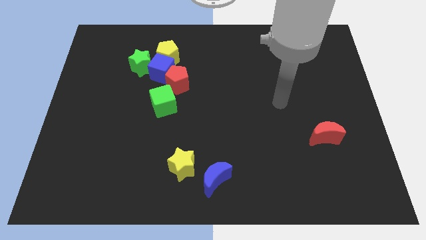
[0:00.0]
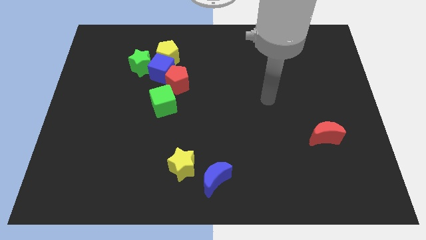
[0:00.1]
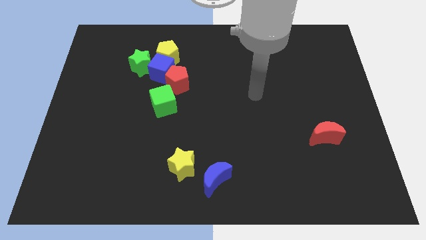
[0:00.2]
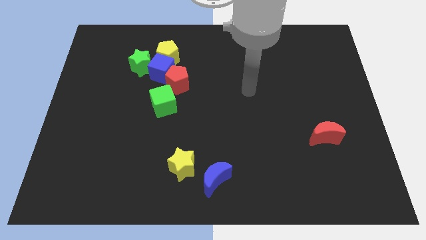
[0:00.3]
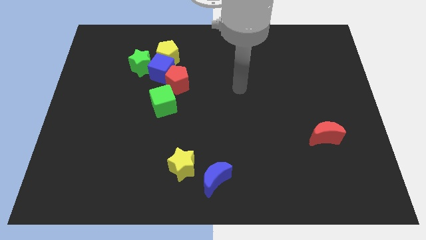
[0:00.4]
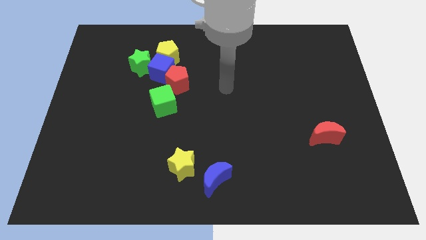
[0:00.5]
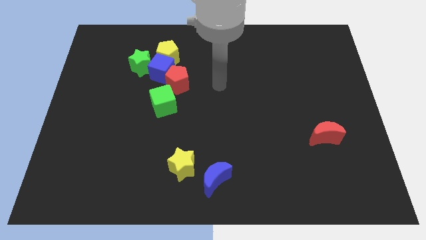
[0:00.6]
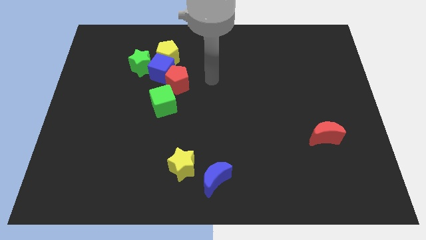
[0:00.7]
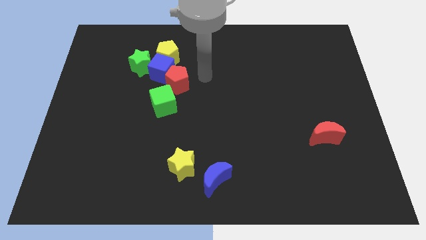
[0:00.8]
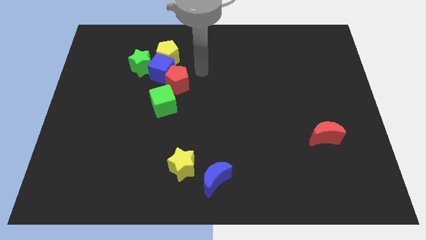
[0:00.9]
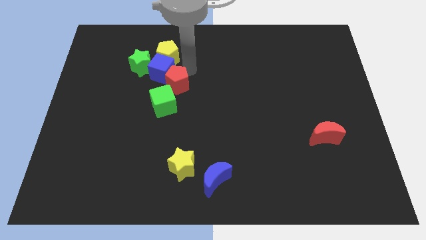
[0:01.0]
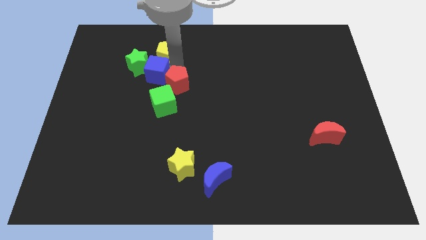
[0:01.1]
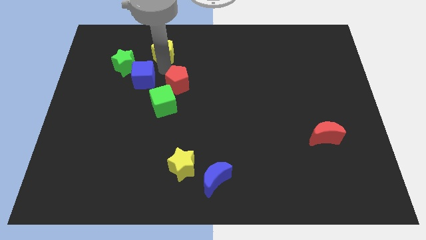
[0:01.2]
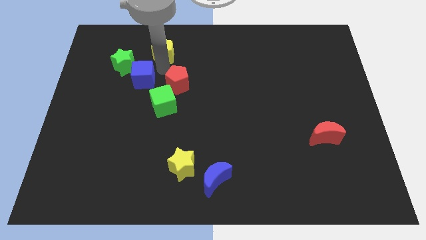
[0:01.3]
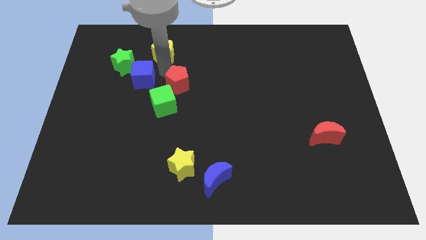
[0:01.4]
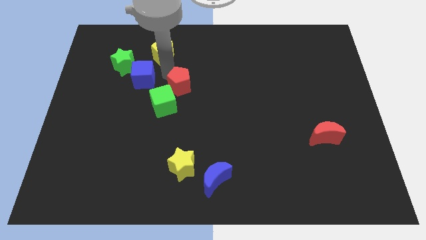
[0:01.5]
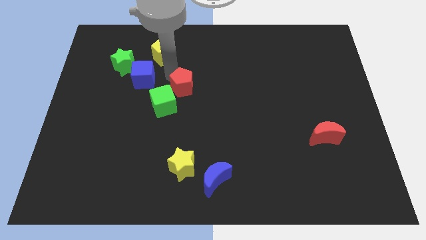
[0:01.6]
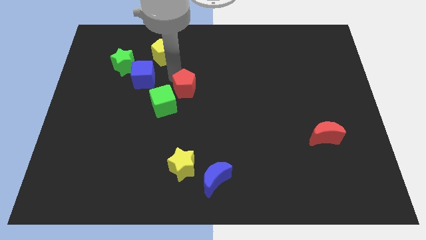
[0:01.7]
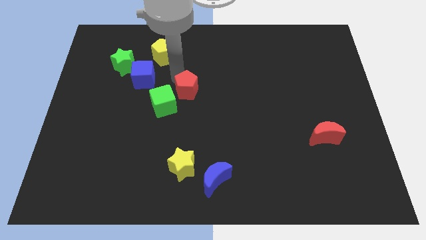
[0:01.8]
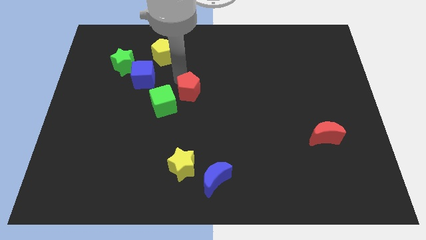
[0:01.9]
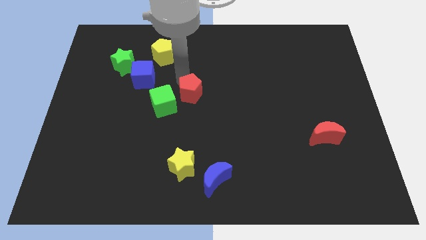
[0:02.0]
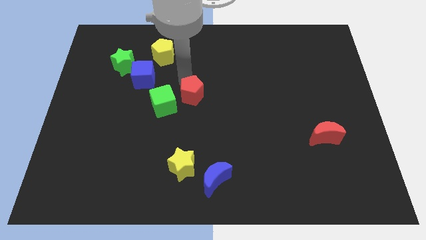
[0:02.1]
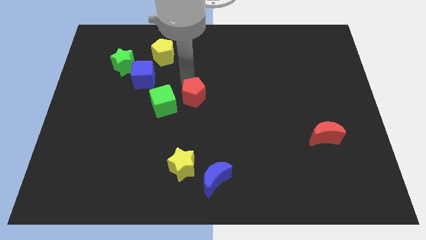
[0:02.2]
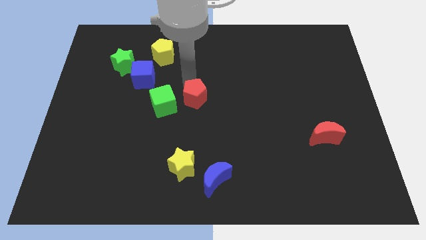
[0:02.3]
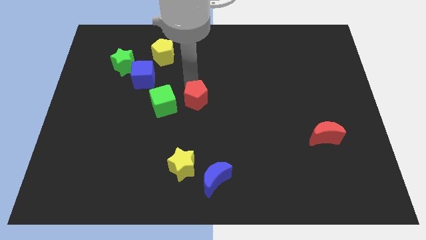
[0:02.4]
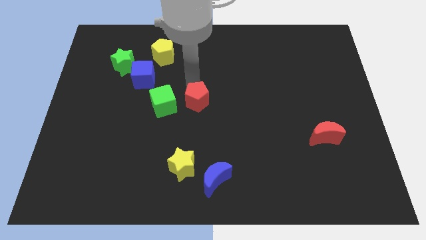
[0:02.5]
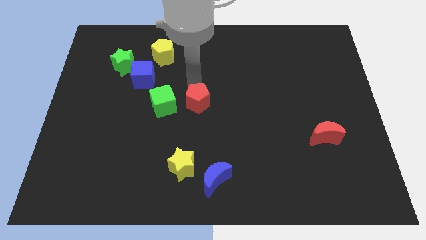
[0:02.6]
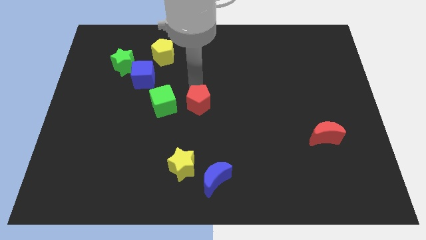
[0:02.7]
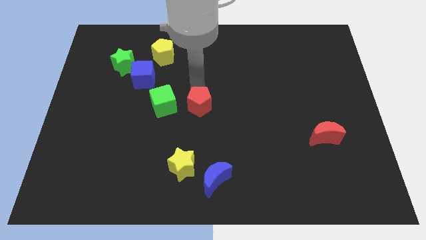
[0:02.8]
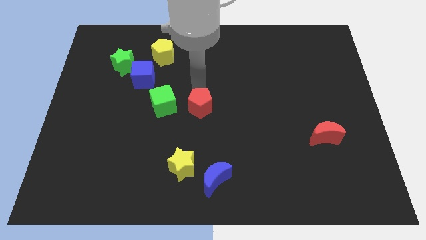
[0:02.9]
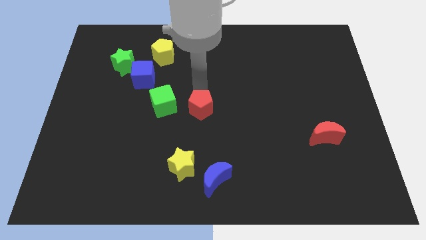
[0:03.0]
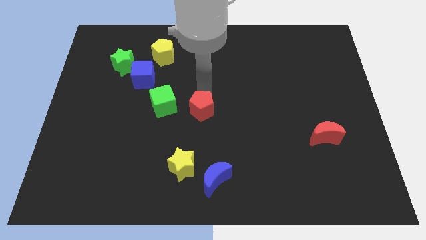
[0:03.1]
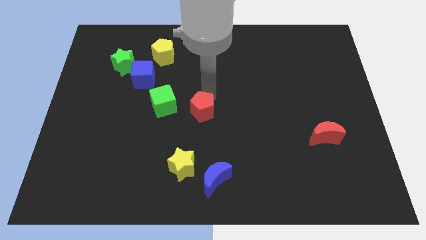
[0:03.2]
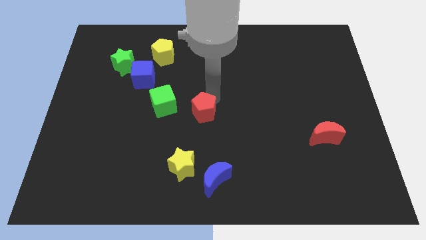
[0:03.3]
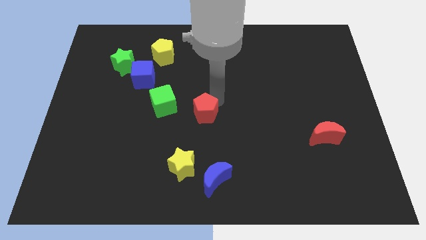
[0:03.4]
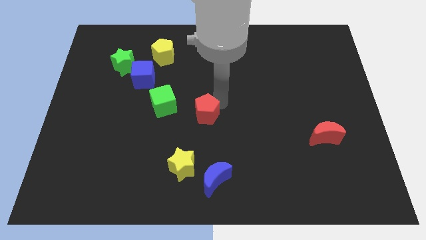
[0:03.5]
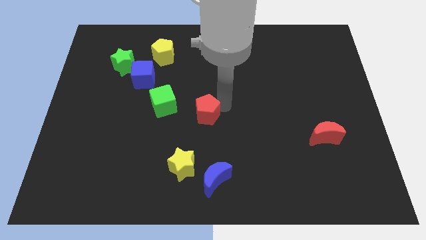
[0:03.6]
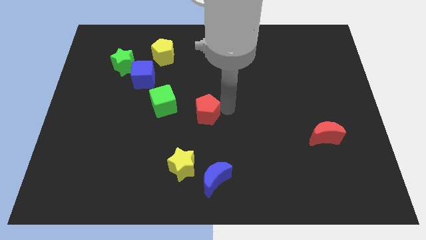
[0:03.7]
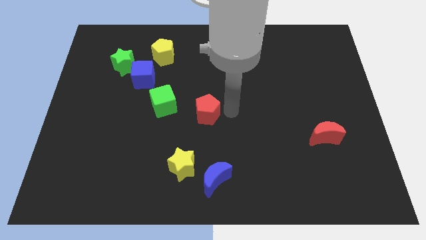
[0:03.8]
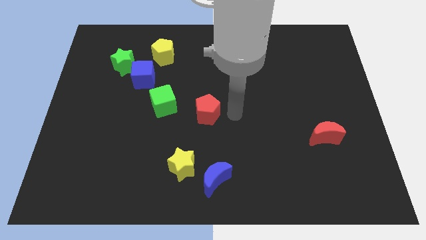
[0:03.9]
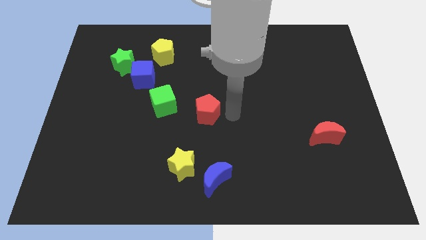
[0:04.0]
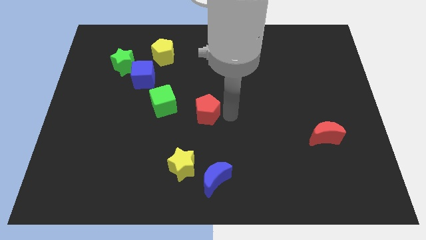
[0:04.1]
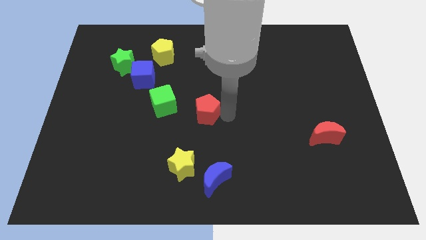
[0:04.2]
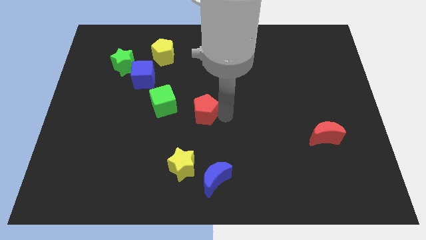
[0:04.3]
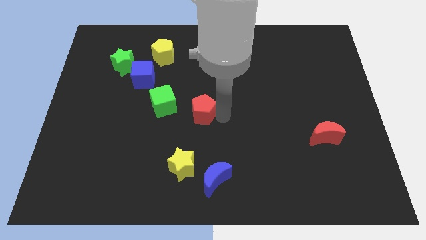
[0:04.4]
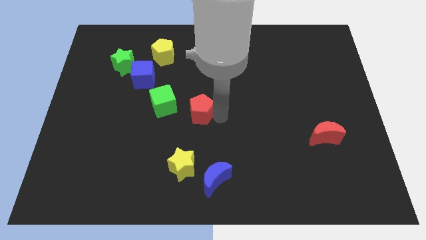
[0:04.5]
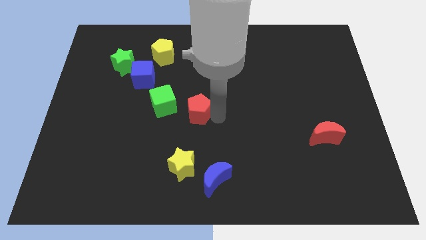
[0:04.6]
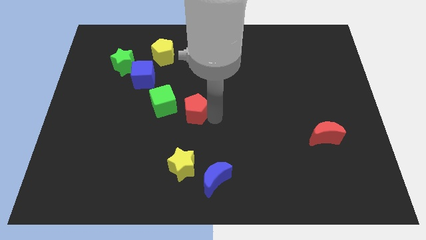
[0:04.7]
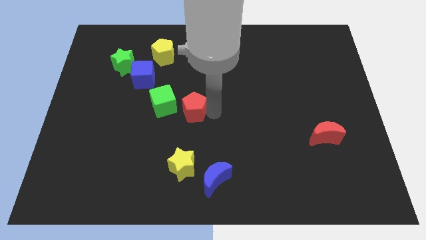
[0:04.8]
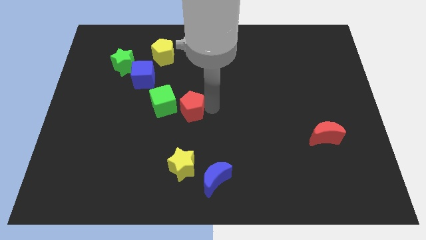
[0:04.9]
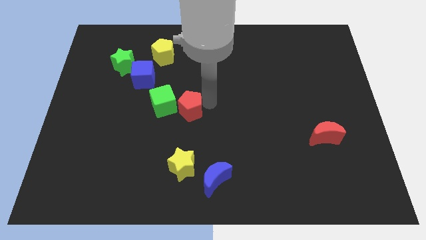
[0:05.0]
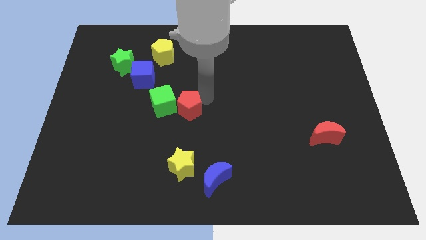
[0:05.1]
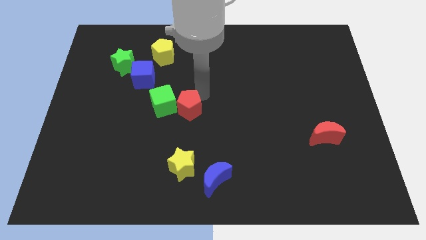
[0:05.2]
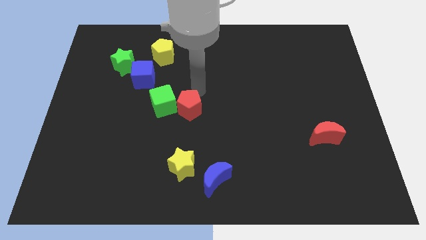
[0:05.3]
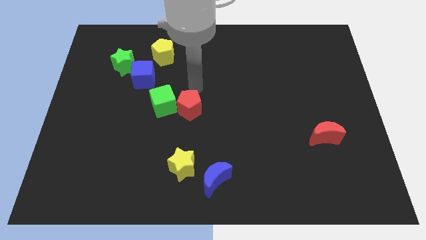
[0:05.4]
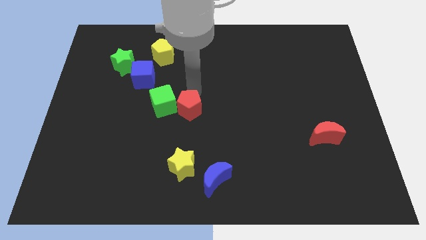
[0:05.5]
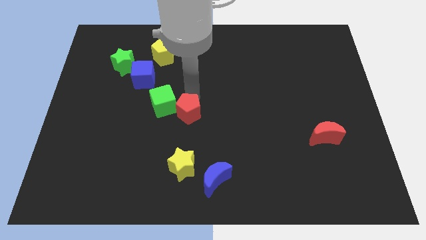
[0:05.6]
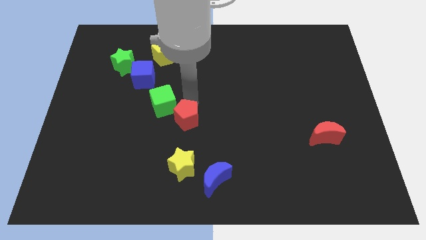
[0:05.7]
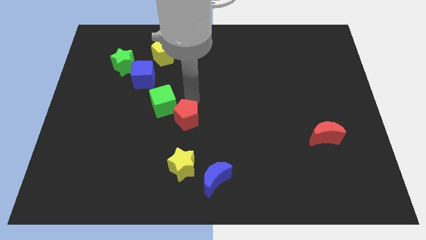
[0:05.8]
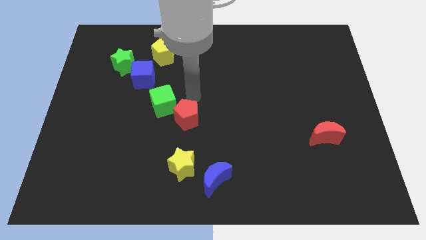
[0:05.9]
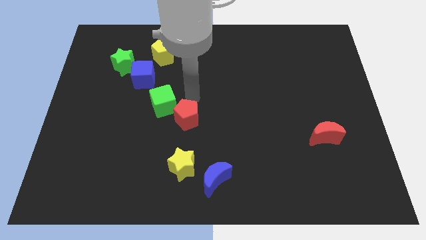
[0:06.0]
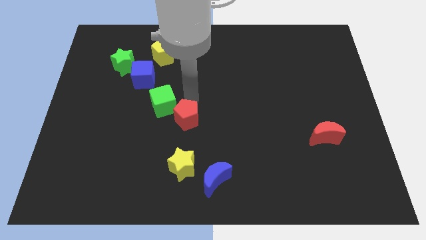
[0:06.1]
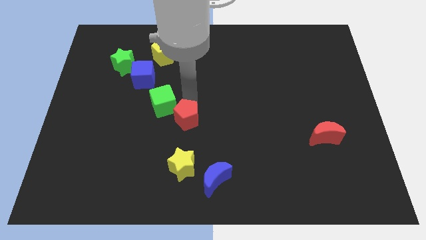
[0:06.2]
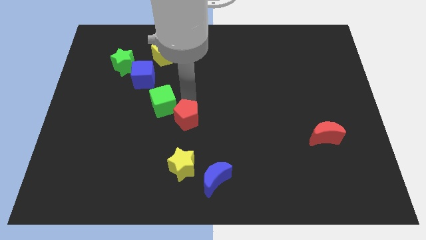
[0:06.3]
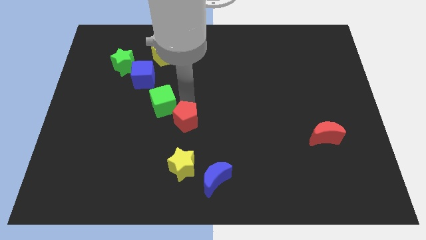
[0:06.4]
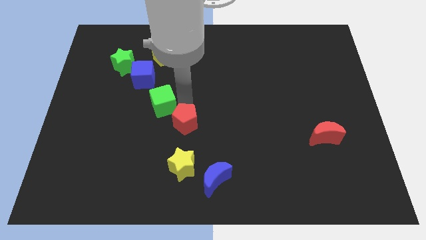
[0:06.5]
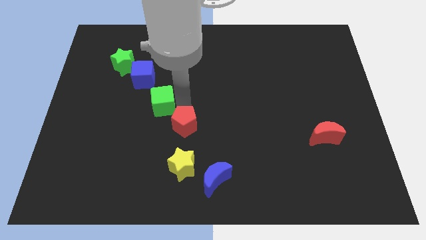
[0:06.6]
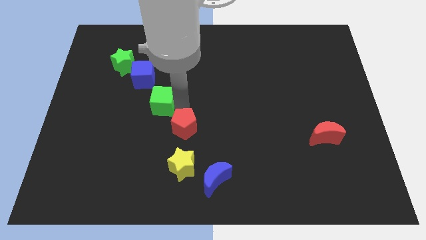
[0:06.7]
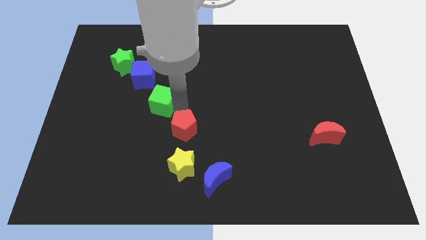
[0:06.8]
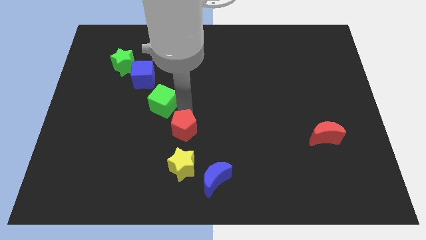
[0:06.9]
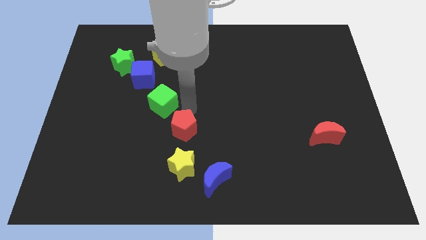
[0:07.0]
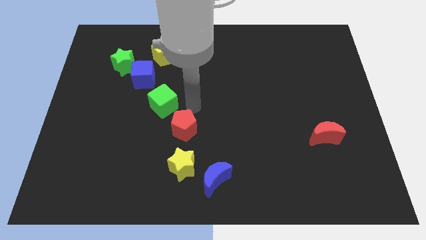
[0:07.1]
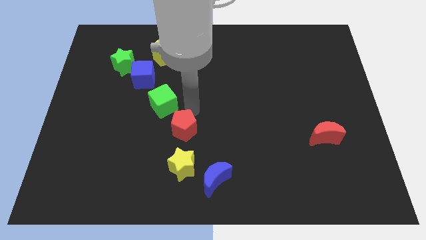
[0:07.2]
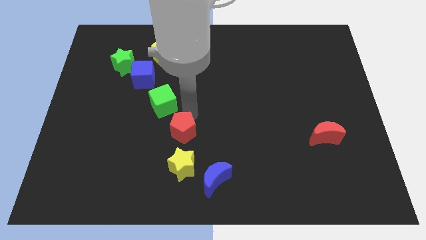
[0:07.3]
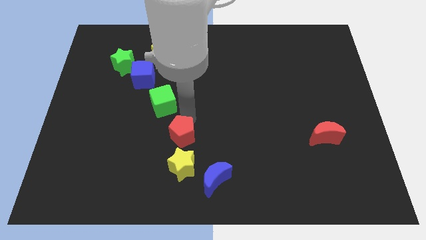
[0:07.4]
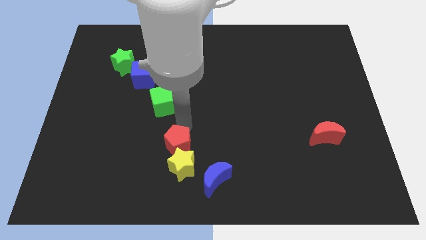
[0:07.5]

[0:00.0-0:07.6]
put the red pentagon towards the yellow star
